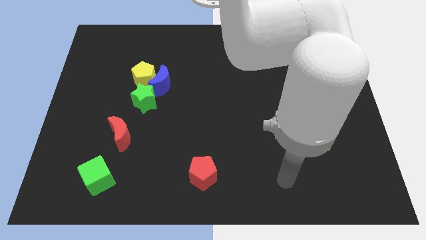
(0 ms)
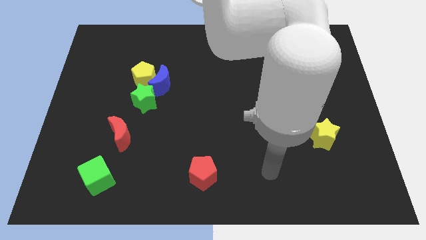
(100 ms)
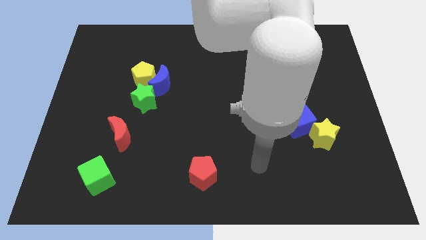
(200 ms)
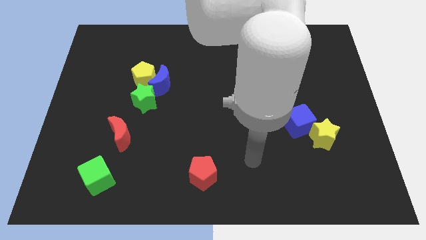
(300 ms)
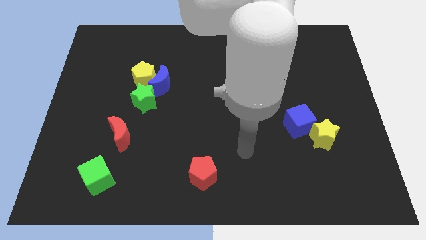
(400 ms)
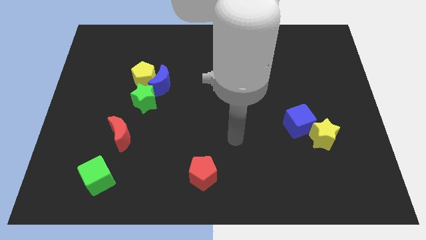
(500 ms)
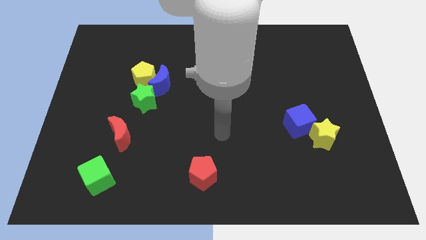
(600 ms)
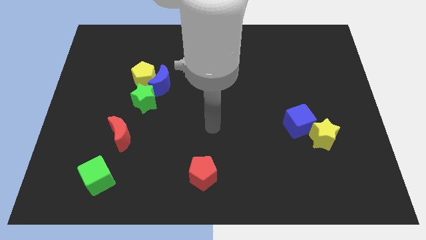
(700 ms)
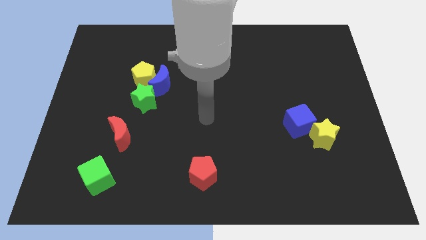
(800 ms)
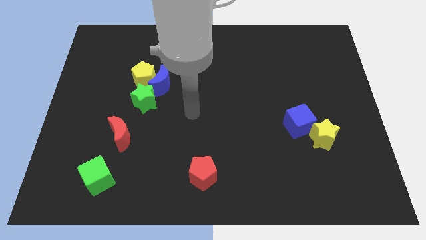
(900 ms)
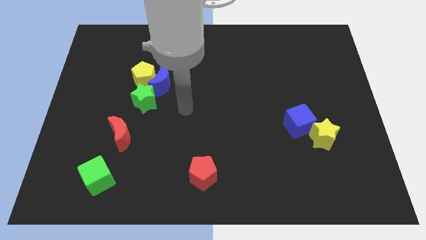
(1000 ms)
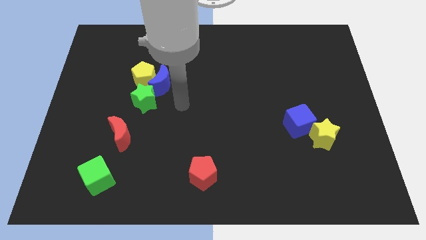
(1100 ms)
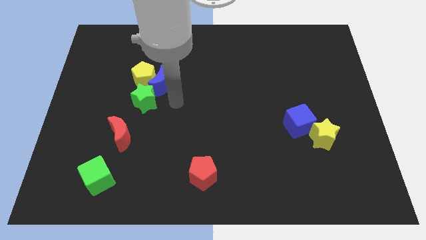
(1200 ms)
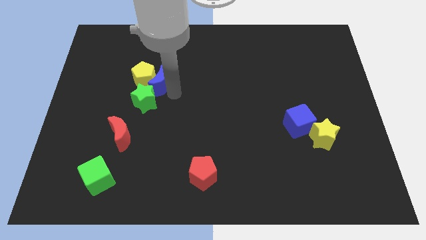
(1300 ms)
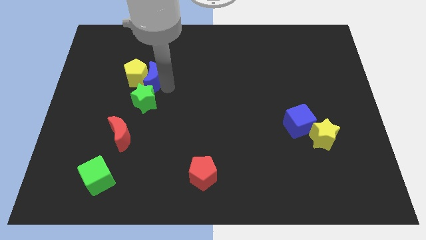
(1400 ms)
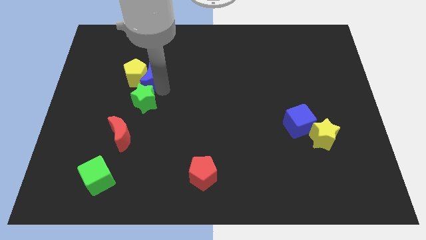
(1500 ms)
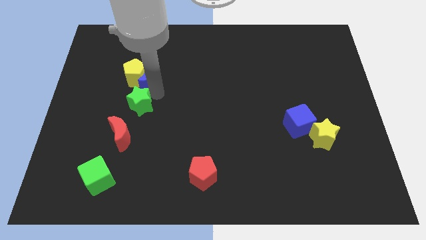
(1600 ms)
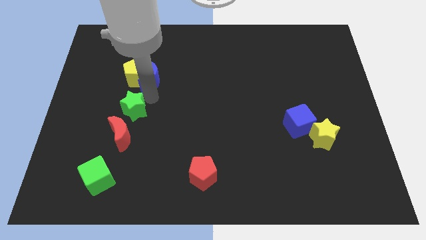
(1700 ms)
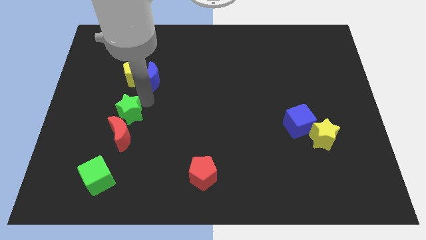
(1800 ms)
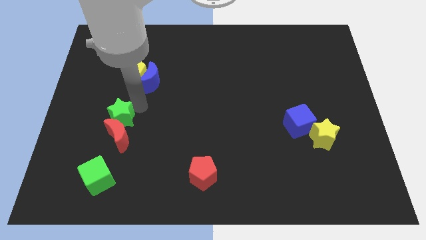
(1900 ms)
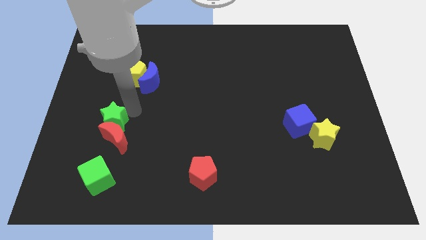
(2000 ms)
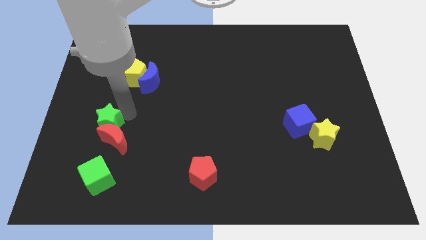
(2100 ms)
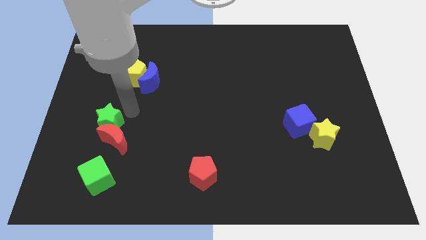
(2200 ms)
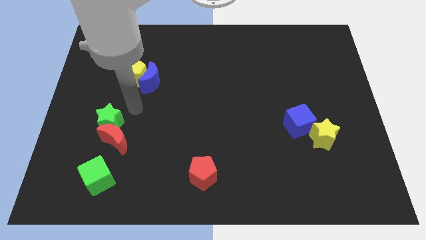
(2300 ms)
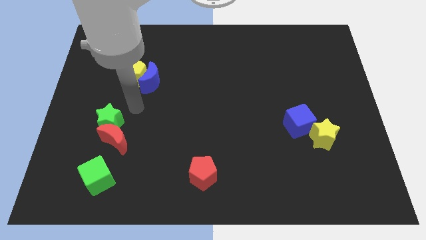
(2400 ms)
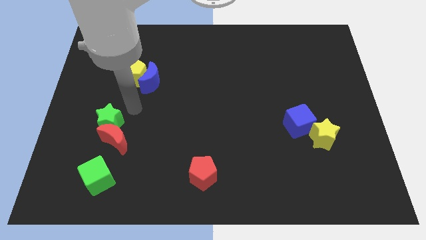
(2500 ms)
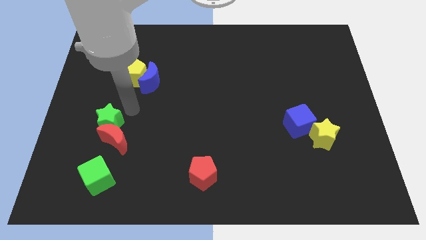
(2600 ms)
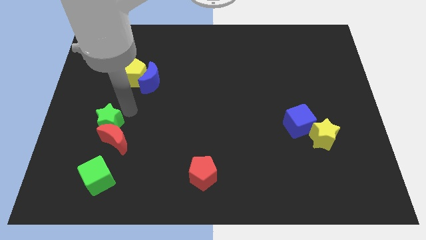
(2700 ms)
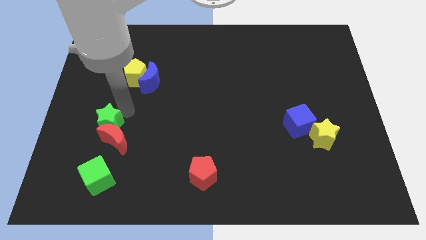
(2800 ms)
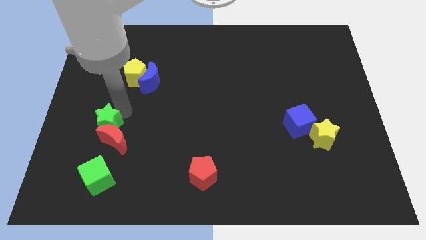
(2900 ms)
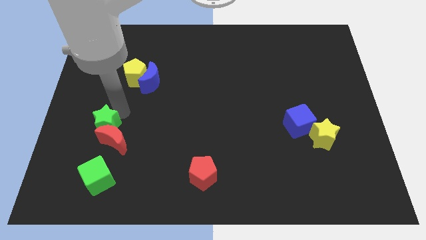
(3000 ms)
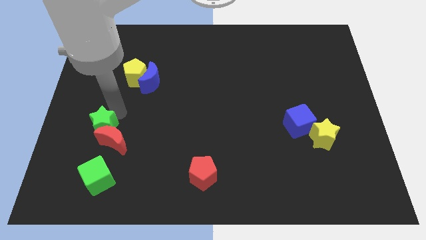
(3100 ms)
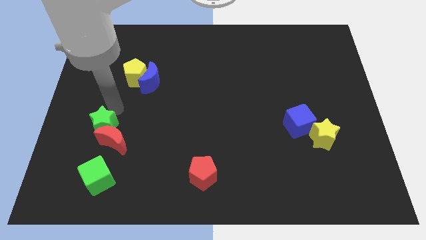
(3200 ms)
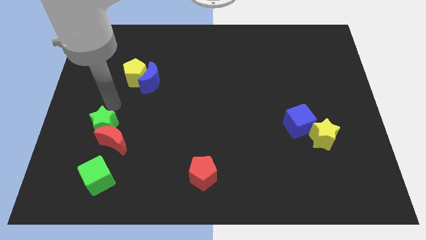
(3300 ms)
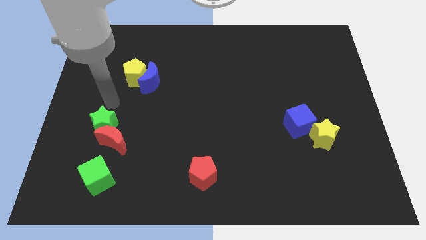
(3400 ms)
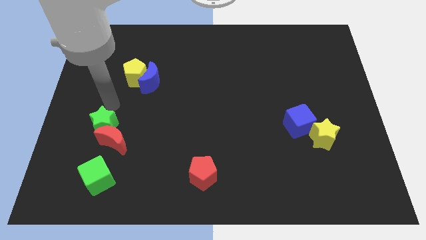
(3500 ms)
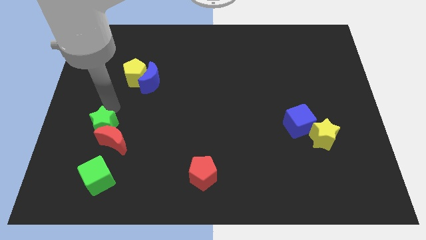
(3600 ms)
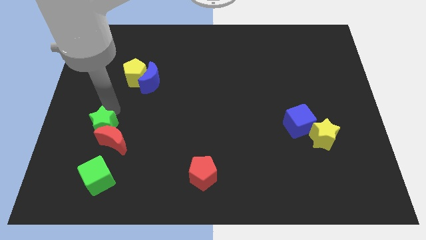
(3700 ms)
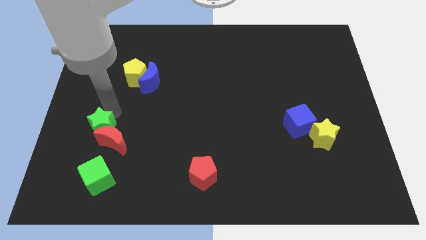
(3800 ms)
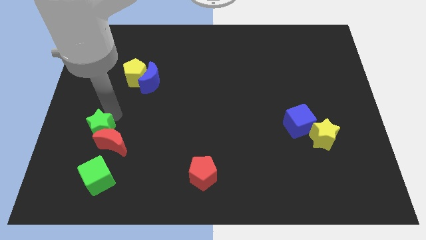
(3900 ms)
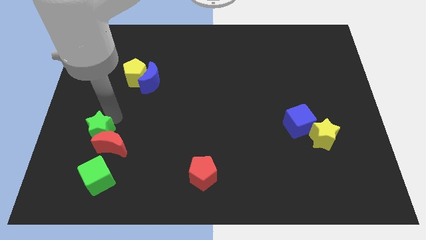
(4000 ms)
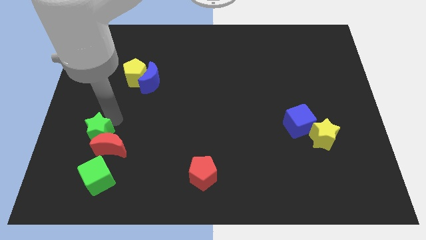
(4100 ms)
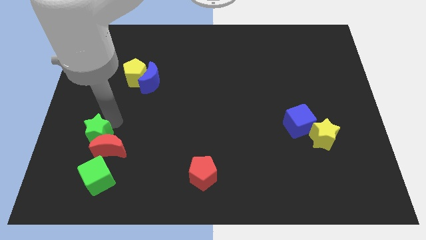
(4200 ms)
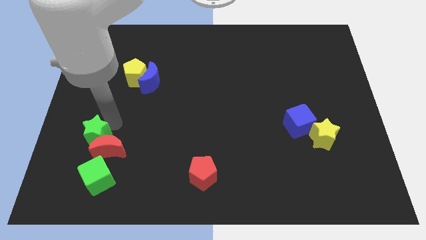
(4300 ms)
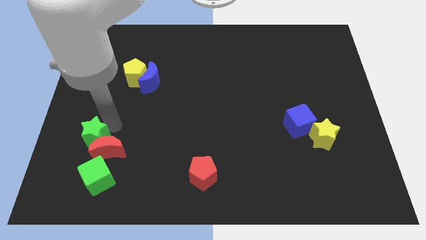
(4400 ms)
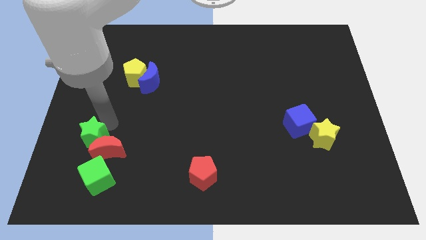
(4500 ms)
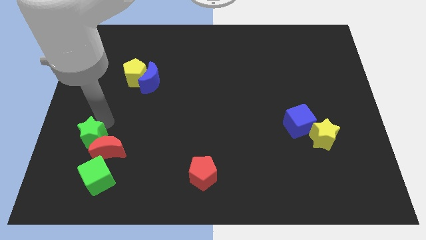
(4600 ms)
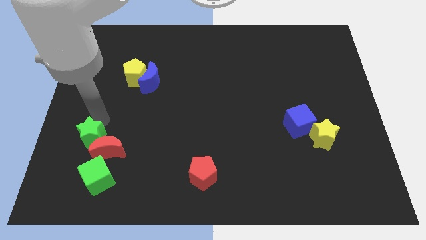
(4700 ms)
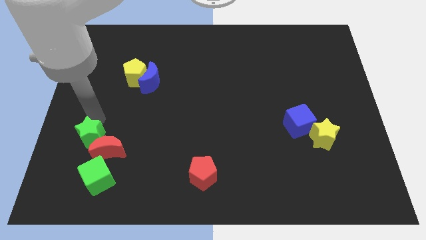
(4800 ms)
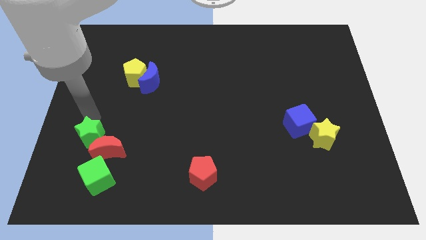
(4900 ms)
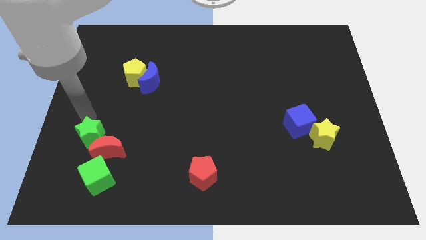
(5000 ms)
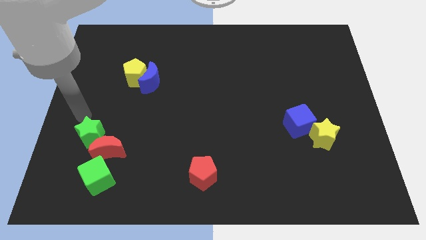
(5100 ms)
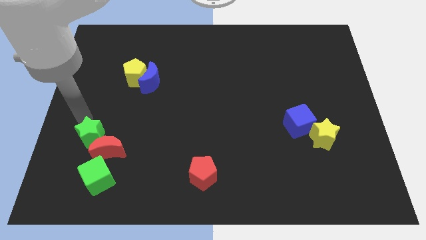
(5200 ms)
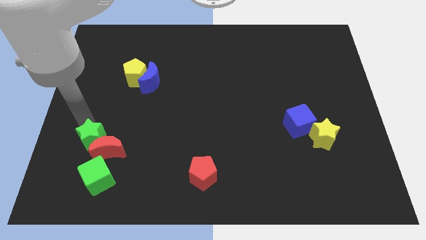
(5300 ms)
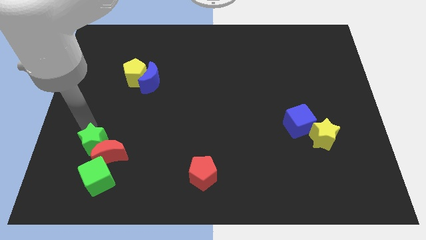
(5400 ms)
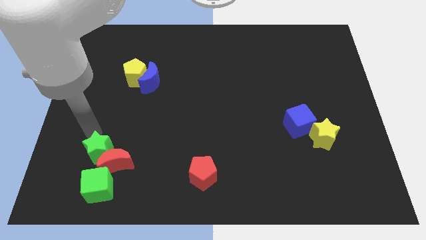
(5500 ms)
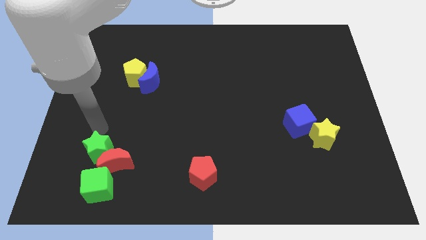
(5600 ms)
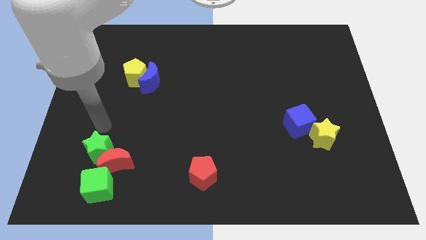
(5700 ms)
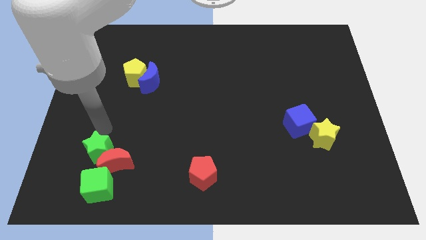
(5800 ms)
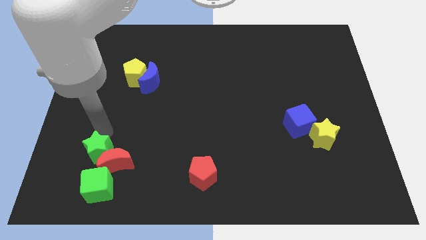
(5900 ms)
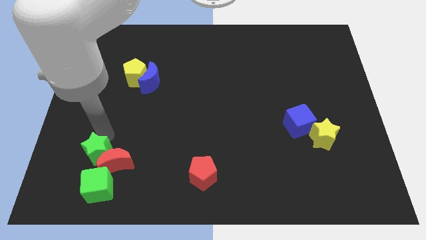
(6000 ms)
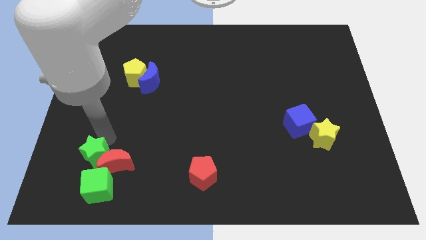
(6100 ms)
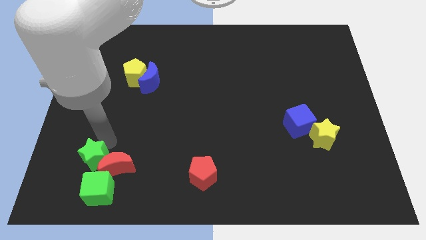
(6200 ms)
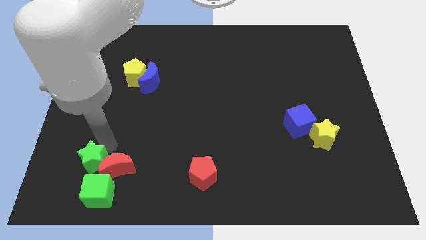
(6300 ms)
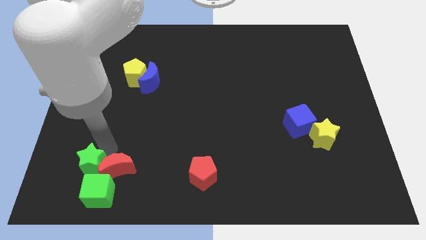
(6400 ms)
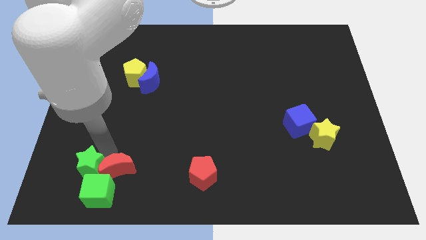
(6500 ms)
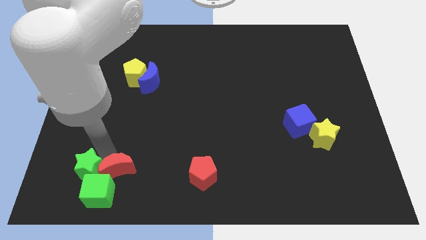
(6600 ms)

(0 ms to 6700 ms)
push the green star to the green cube
